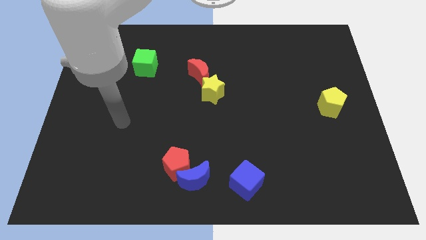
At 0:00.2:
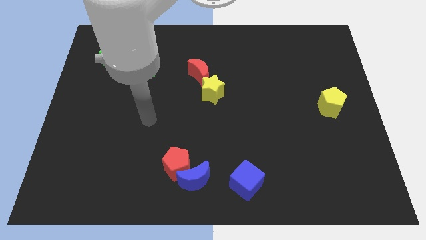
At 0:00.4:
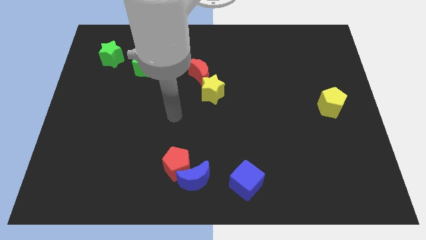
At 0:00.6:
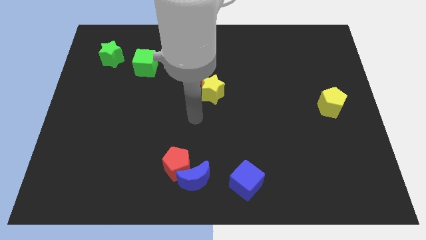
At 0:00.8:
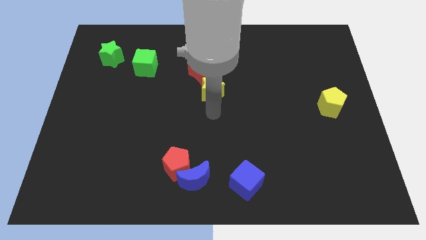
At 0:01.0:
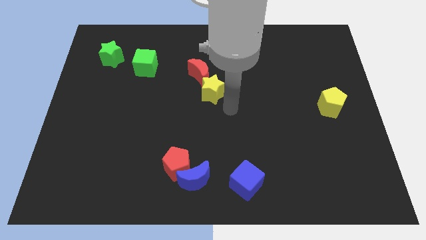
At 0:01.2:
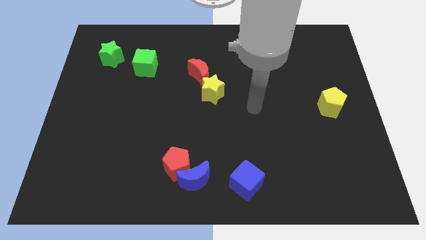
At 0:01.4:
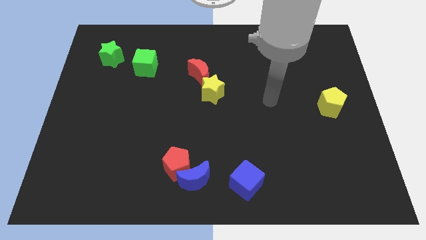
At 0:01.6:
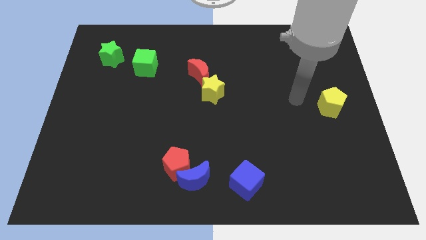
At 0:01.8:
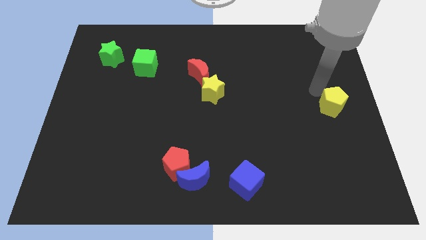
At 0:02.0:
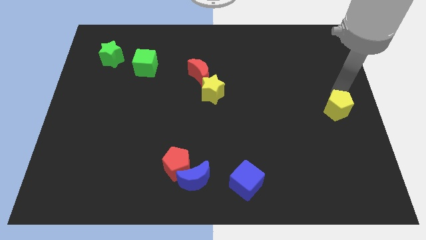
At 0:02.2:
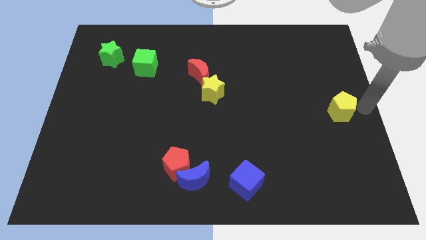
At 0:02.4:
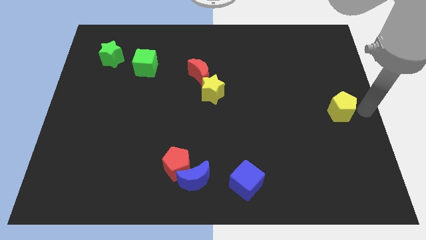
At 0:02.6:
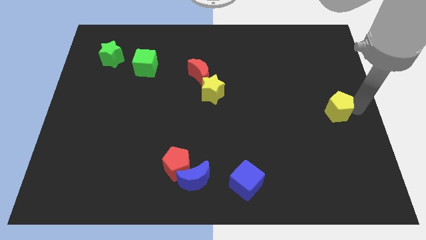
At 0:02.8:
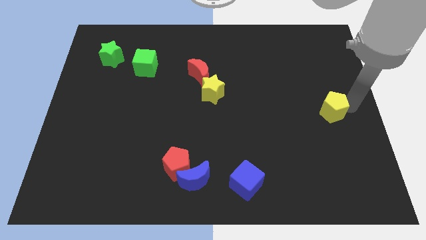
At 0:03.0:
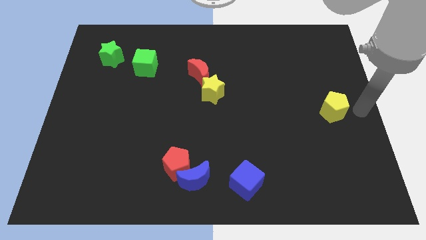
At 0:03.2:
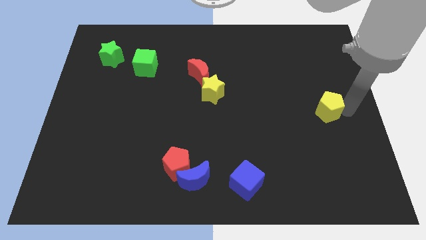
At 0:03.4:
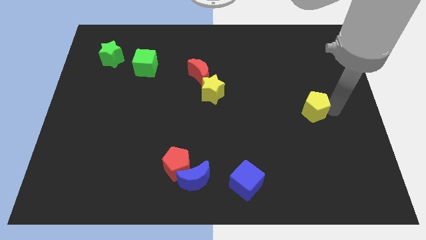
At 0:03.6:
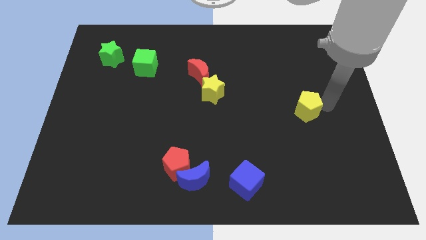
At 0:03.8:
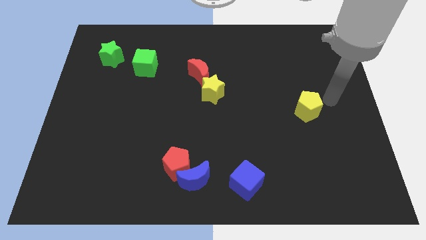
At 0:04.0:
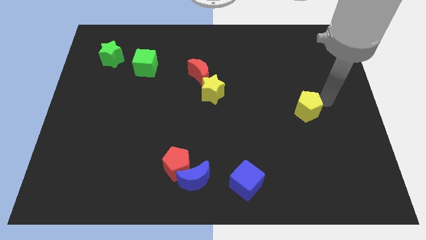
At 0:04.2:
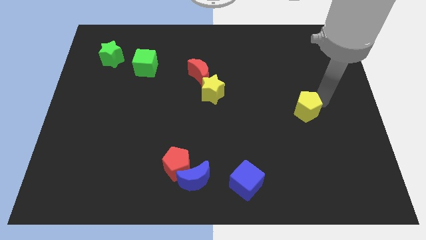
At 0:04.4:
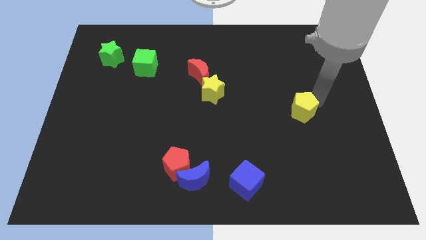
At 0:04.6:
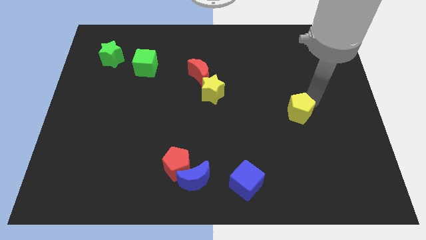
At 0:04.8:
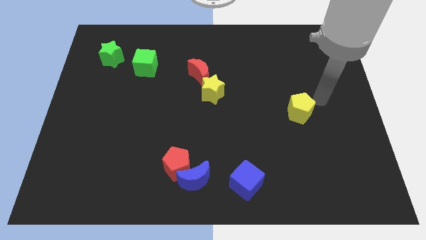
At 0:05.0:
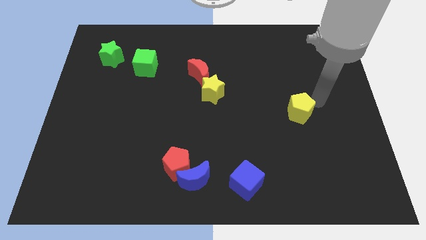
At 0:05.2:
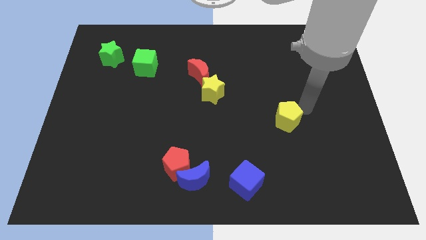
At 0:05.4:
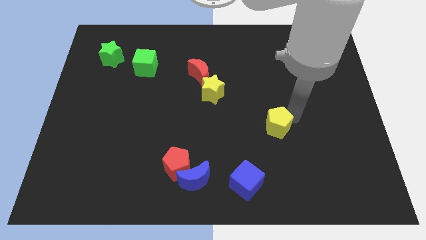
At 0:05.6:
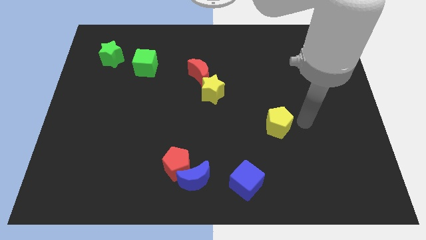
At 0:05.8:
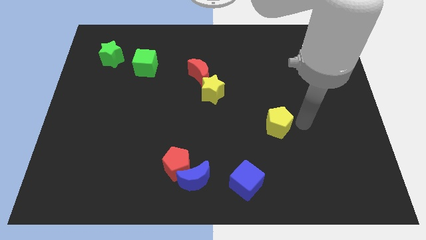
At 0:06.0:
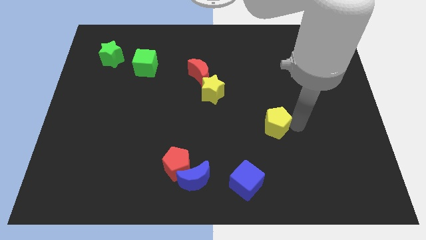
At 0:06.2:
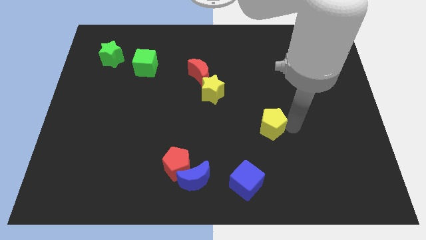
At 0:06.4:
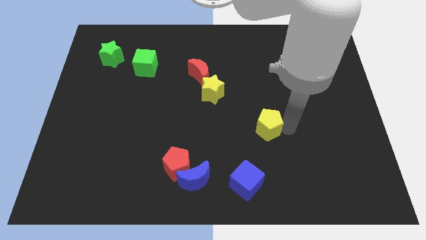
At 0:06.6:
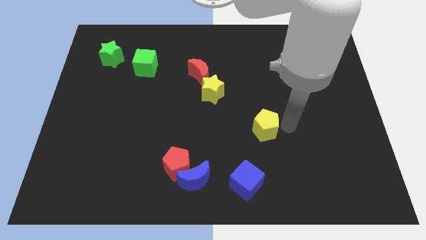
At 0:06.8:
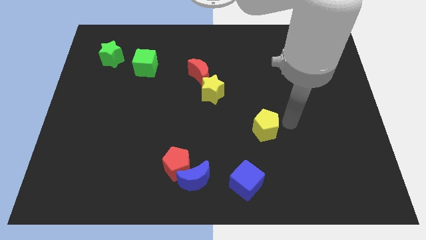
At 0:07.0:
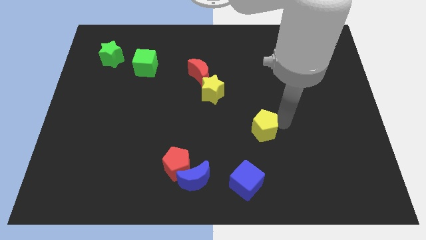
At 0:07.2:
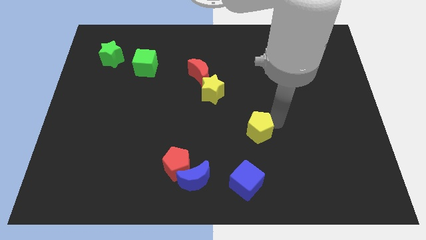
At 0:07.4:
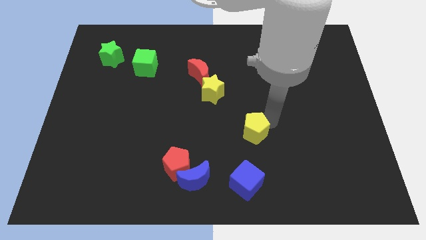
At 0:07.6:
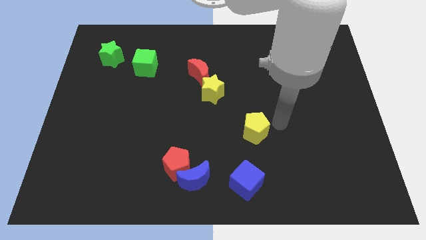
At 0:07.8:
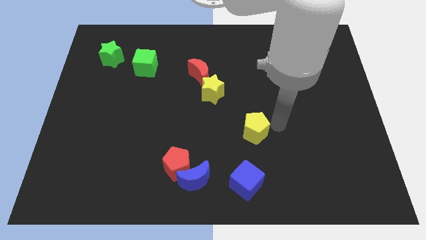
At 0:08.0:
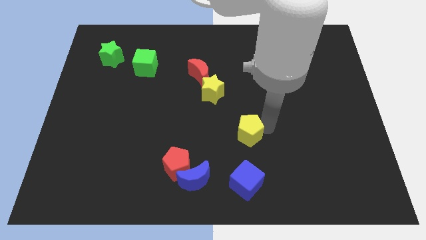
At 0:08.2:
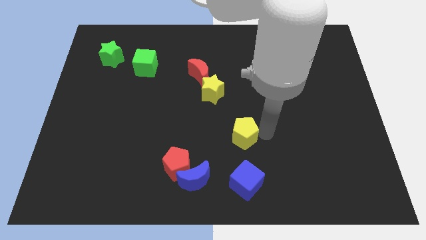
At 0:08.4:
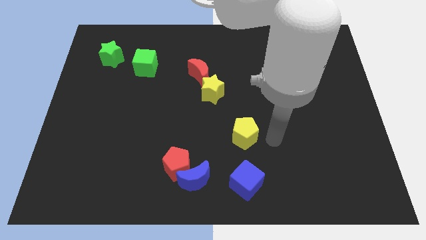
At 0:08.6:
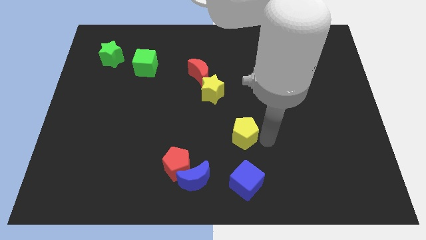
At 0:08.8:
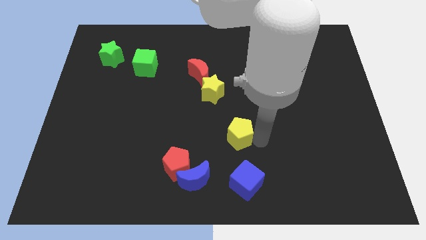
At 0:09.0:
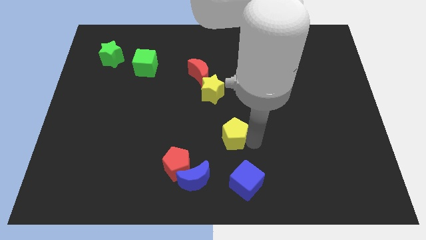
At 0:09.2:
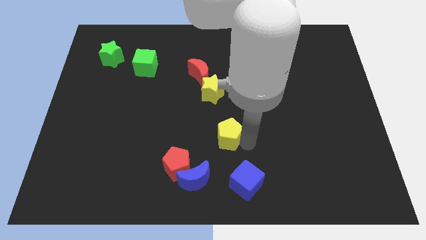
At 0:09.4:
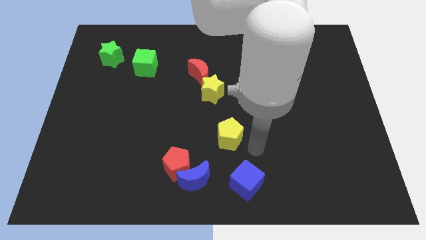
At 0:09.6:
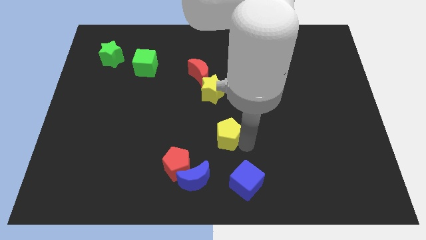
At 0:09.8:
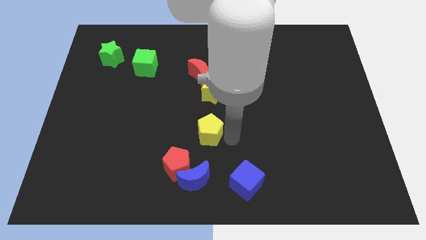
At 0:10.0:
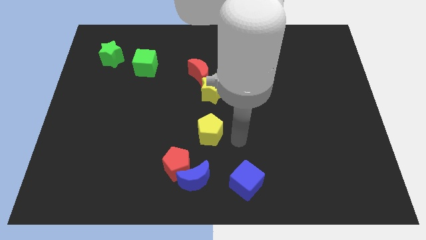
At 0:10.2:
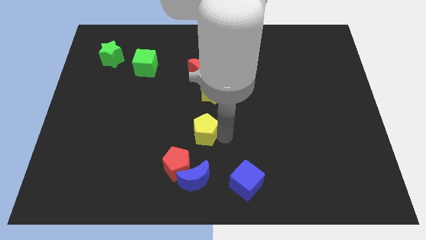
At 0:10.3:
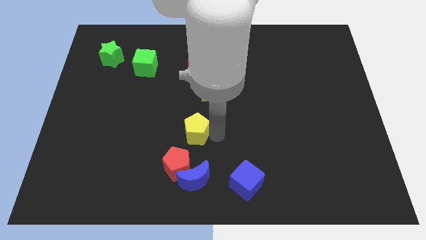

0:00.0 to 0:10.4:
put the yellow pentagon to the top side of the red pentagon

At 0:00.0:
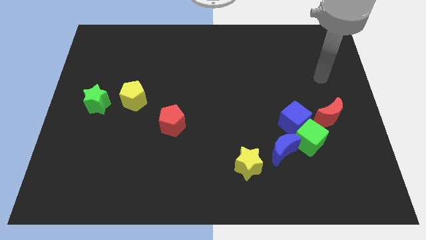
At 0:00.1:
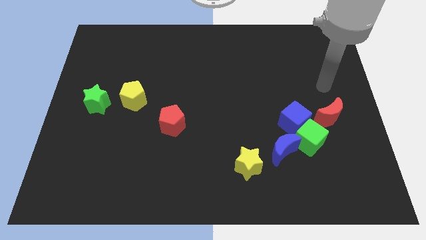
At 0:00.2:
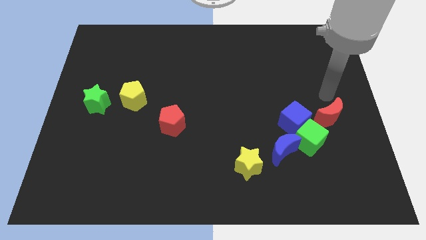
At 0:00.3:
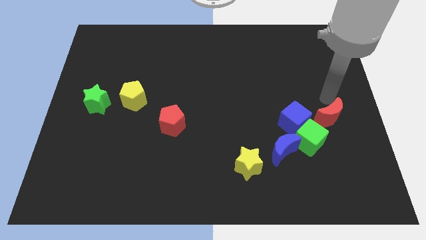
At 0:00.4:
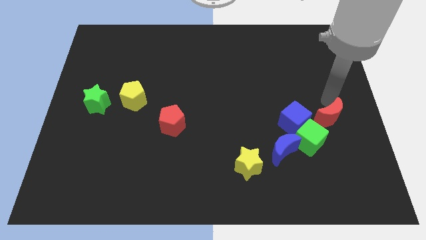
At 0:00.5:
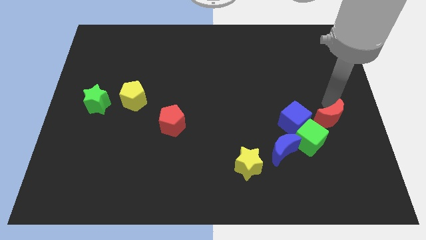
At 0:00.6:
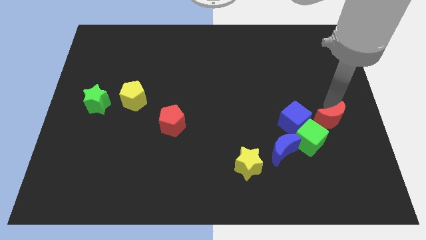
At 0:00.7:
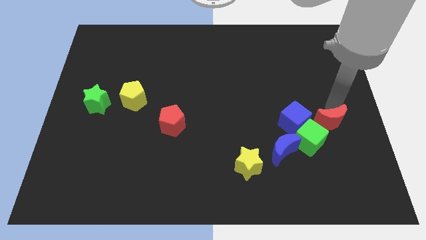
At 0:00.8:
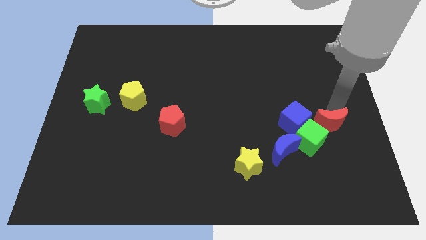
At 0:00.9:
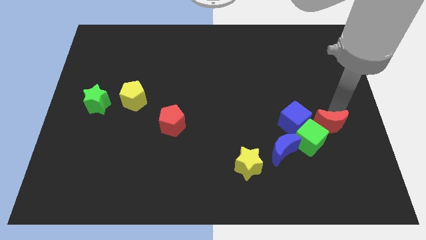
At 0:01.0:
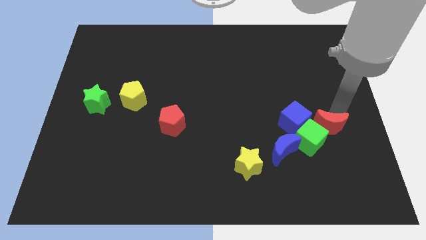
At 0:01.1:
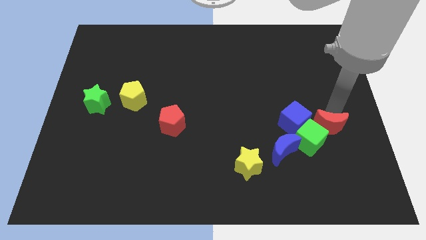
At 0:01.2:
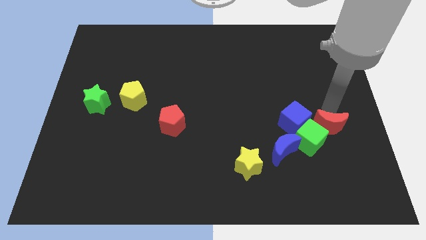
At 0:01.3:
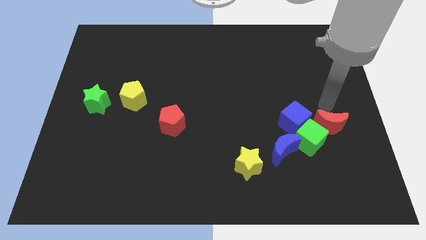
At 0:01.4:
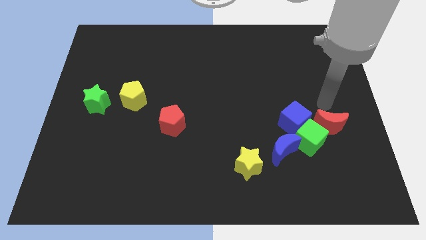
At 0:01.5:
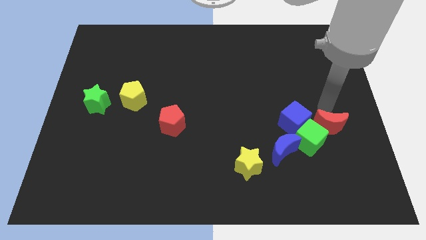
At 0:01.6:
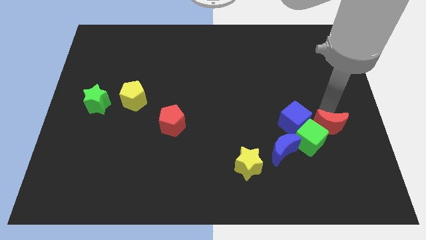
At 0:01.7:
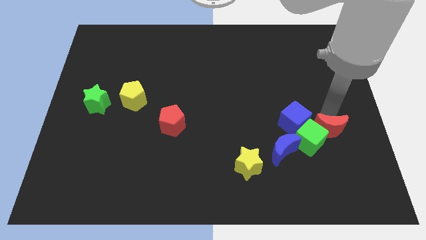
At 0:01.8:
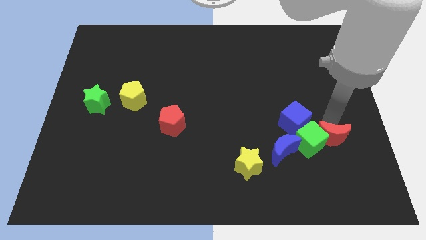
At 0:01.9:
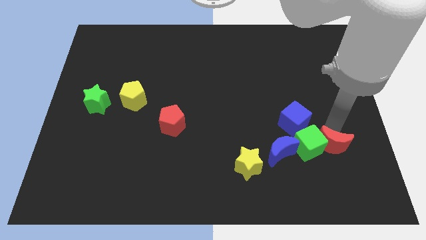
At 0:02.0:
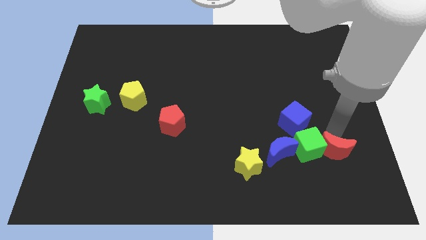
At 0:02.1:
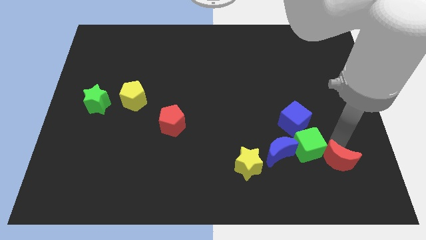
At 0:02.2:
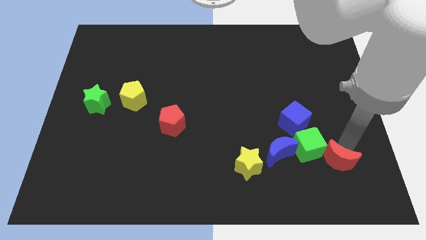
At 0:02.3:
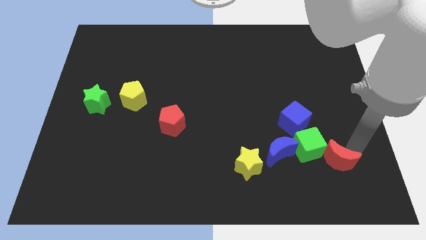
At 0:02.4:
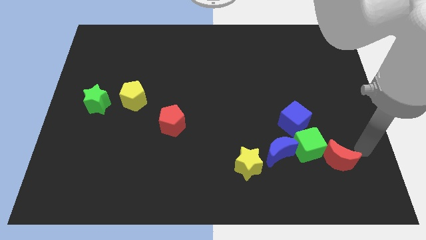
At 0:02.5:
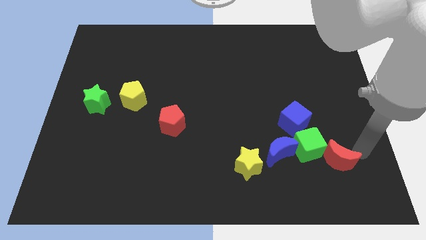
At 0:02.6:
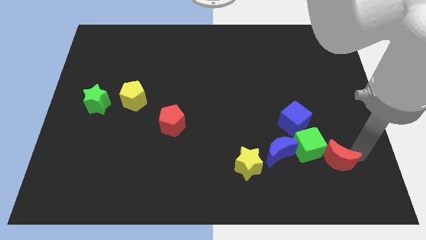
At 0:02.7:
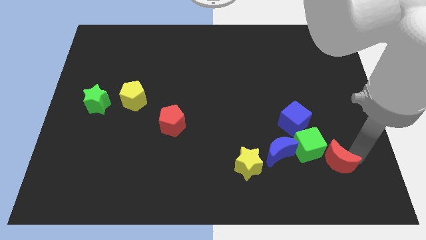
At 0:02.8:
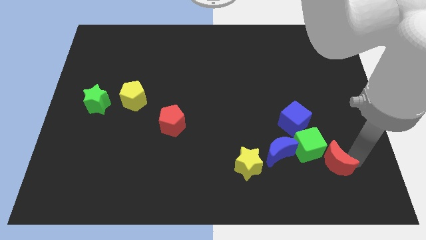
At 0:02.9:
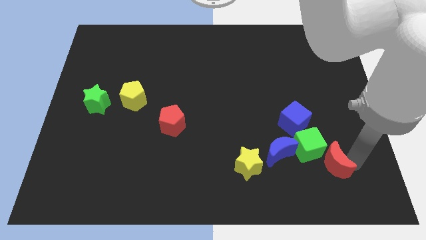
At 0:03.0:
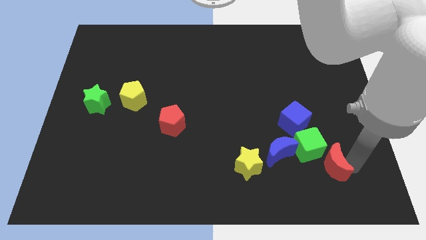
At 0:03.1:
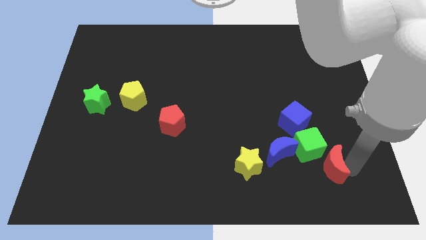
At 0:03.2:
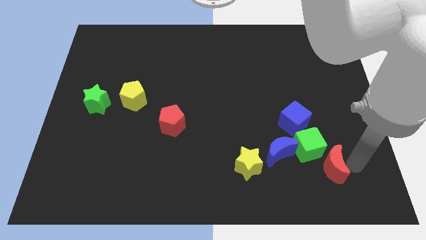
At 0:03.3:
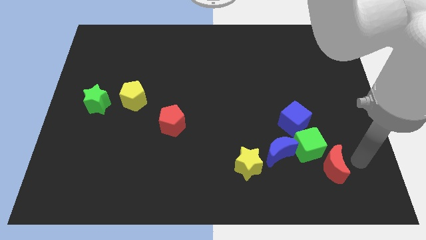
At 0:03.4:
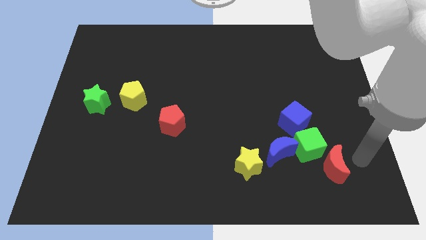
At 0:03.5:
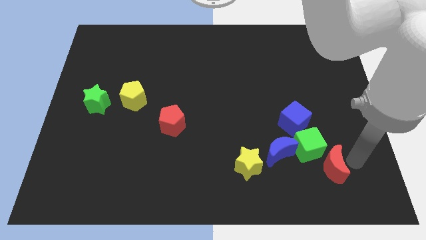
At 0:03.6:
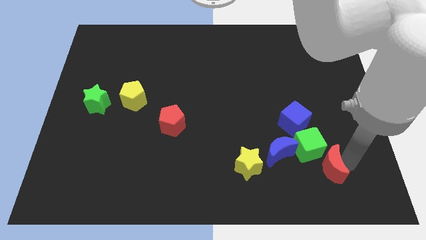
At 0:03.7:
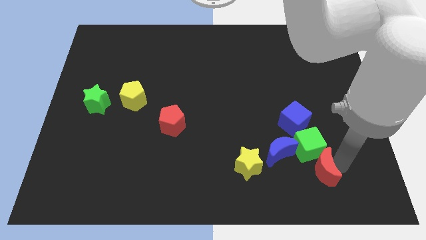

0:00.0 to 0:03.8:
slide the red moon diagonally down and to the right of the blue moon
